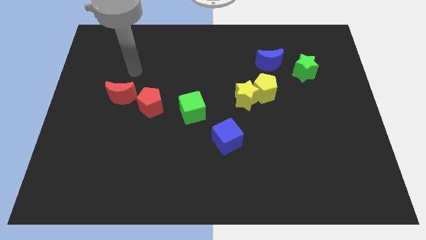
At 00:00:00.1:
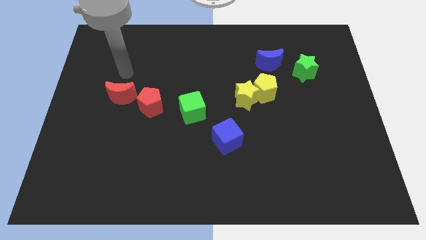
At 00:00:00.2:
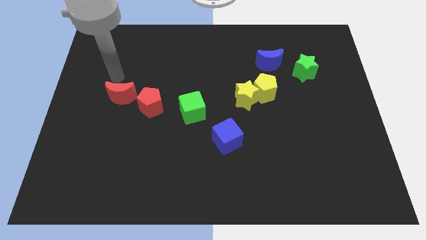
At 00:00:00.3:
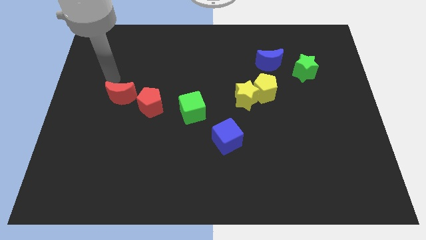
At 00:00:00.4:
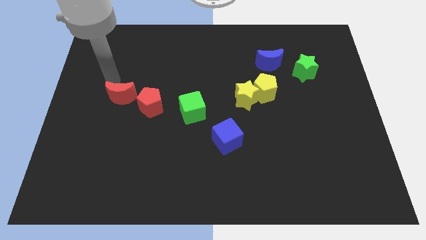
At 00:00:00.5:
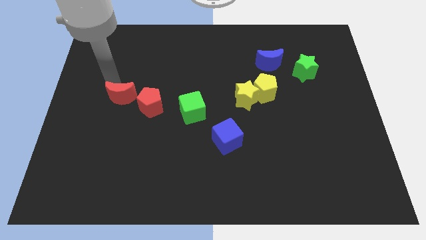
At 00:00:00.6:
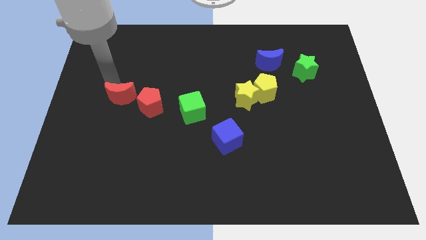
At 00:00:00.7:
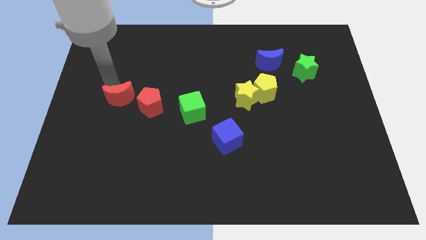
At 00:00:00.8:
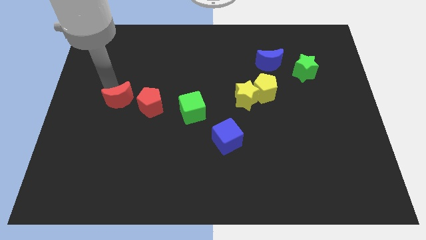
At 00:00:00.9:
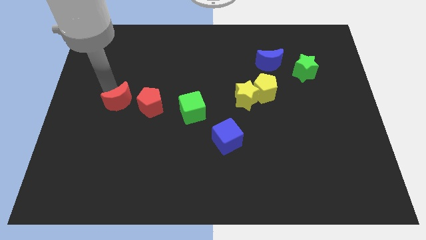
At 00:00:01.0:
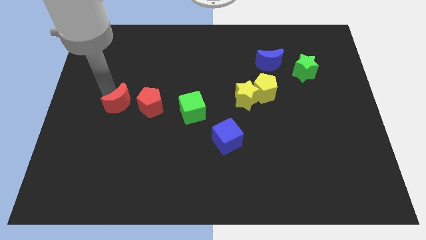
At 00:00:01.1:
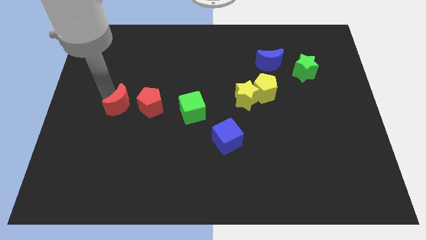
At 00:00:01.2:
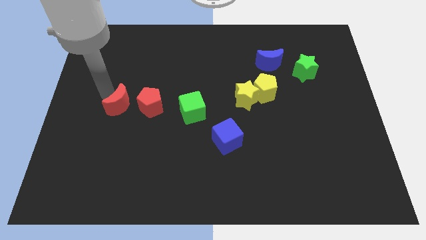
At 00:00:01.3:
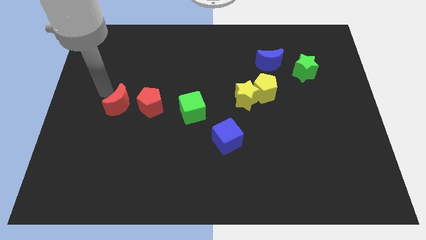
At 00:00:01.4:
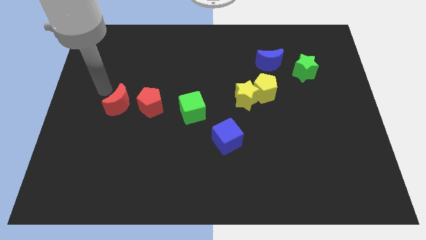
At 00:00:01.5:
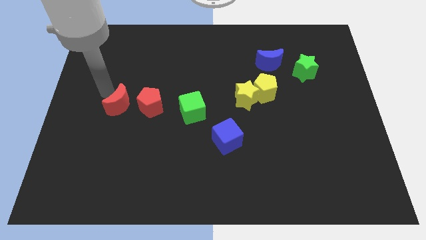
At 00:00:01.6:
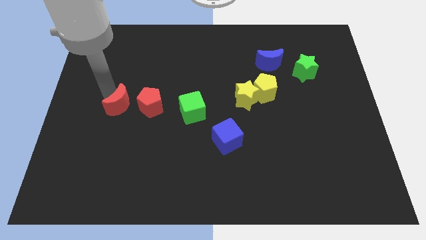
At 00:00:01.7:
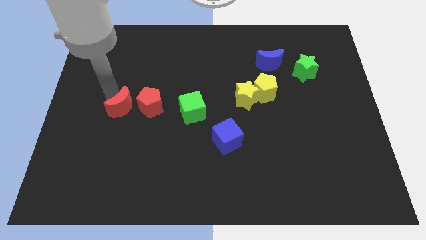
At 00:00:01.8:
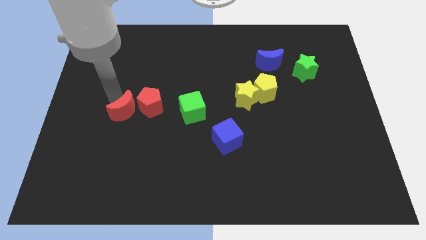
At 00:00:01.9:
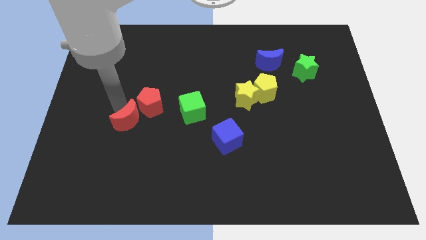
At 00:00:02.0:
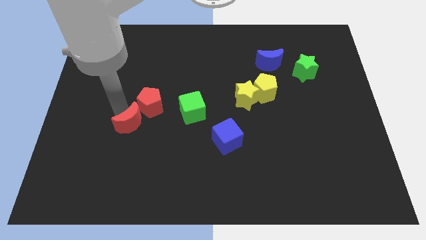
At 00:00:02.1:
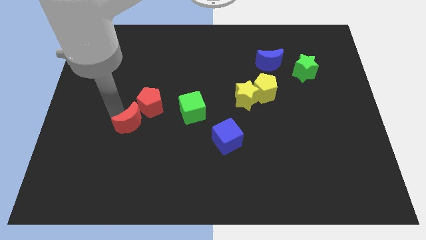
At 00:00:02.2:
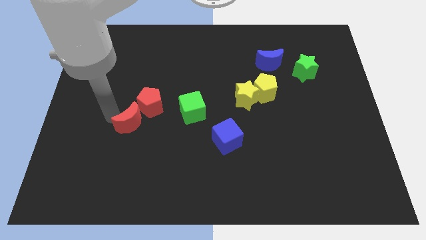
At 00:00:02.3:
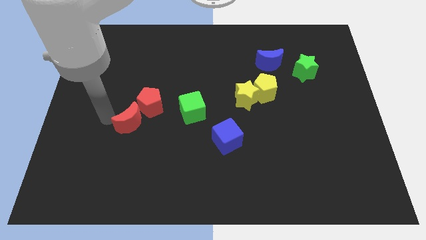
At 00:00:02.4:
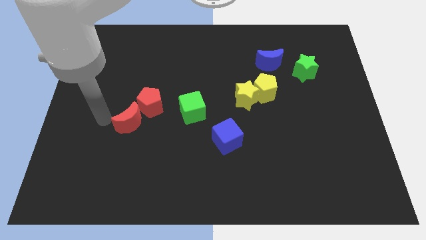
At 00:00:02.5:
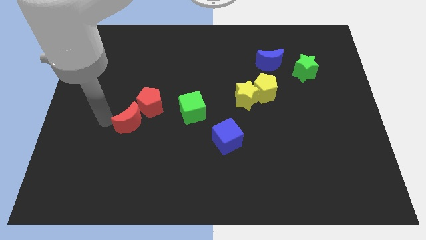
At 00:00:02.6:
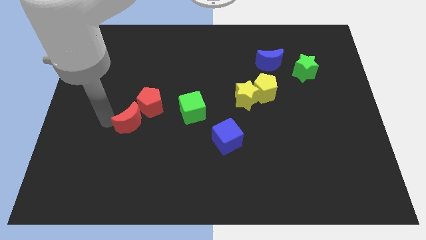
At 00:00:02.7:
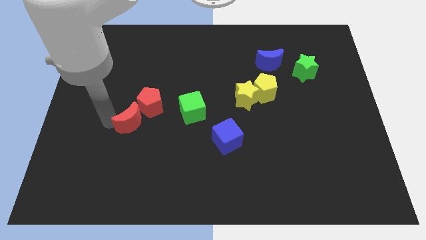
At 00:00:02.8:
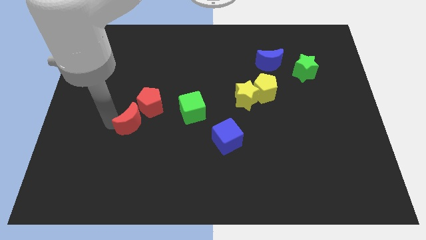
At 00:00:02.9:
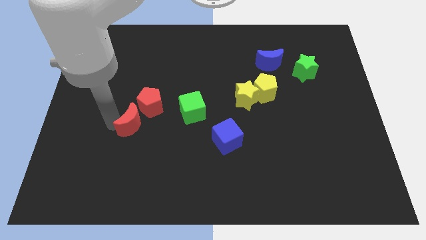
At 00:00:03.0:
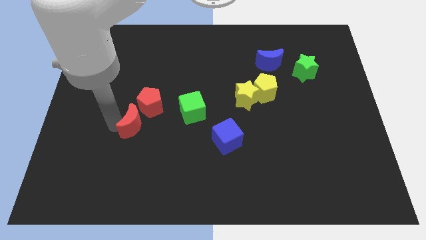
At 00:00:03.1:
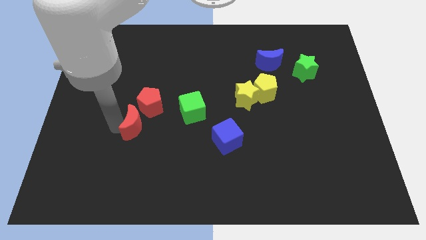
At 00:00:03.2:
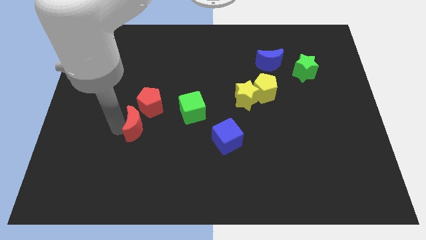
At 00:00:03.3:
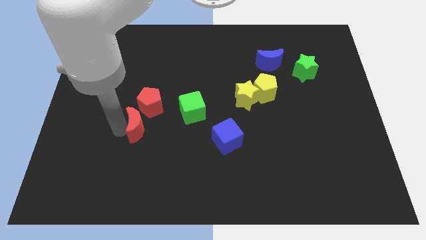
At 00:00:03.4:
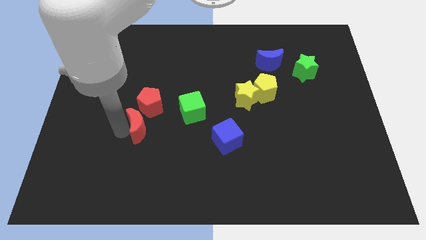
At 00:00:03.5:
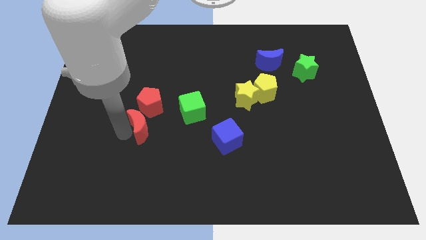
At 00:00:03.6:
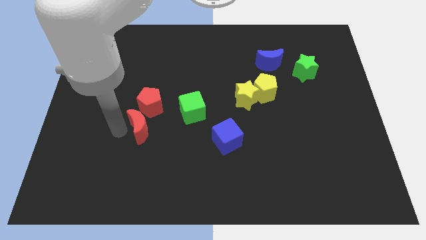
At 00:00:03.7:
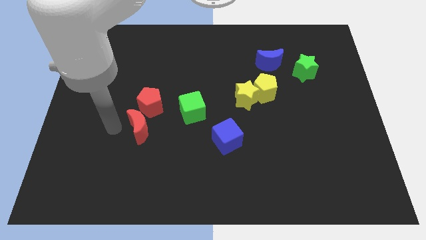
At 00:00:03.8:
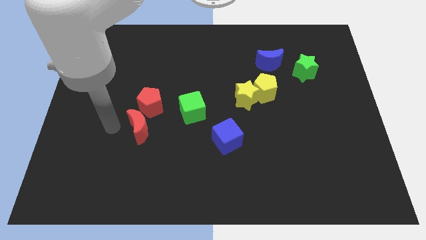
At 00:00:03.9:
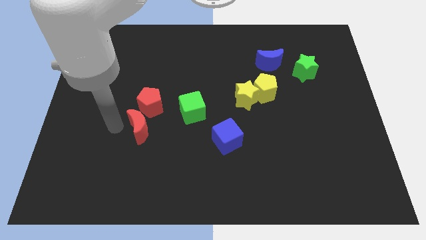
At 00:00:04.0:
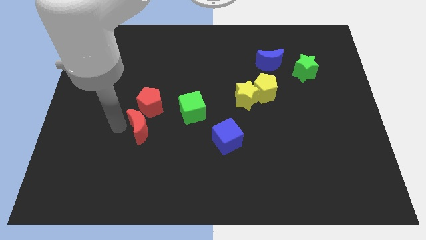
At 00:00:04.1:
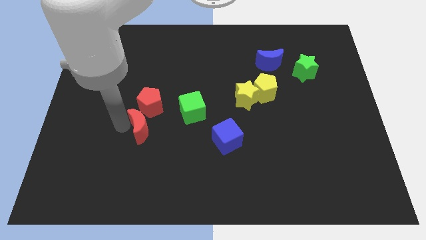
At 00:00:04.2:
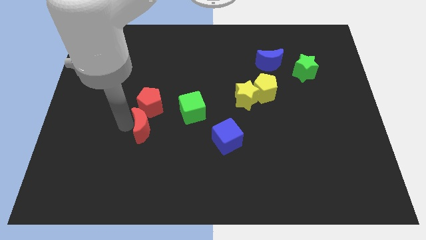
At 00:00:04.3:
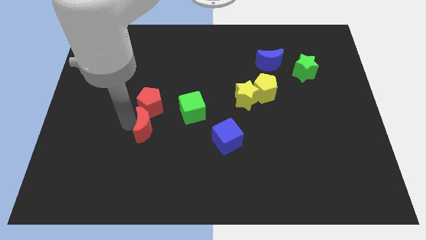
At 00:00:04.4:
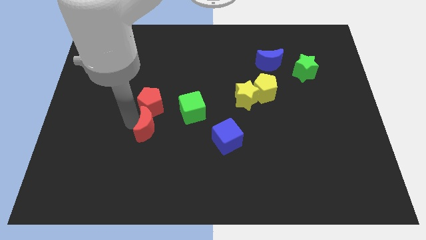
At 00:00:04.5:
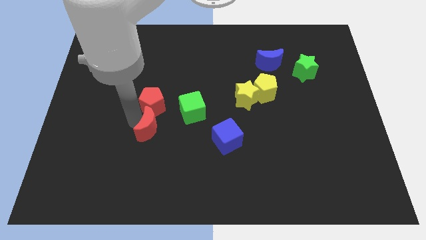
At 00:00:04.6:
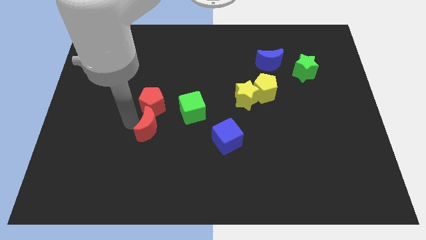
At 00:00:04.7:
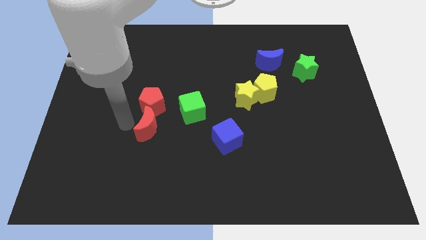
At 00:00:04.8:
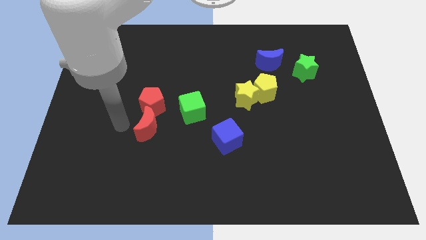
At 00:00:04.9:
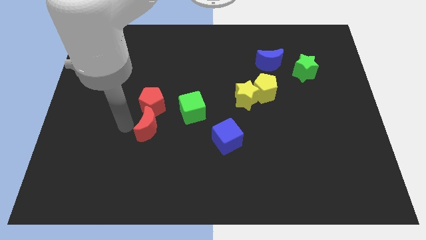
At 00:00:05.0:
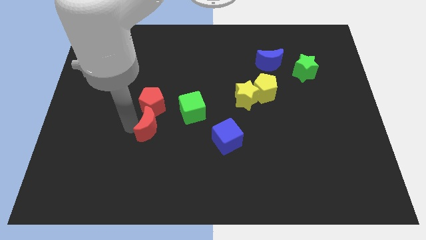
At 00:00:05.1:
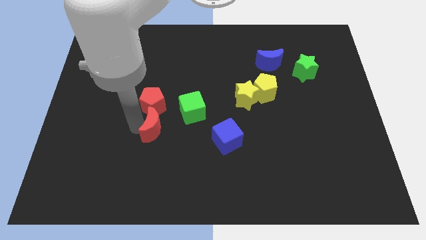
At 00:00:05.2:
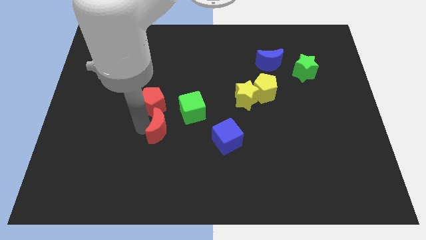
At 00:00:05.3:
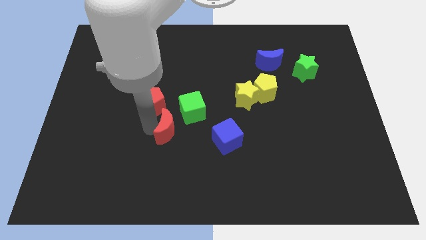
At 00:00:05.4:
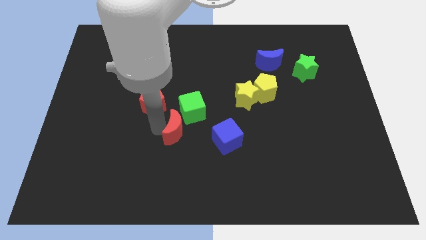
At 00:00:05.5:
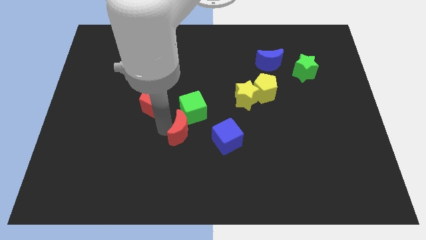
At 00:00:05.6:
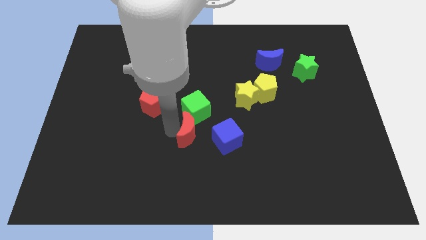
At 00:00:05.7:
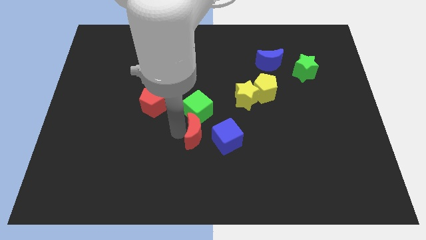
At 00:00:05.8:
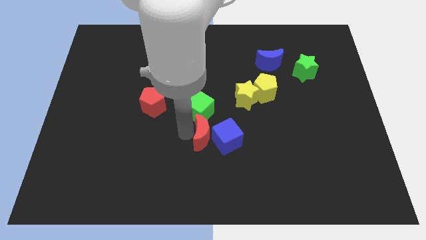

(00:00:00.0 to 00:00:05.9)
put the red moon next to the blue cube

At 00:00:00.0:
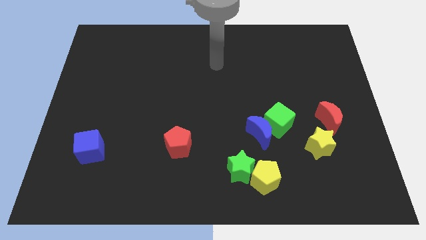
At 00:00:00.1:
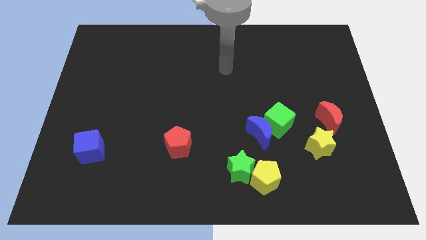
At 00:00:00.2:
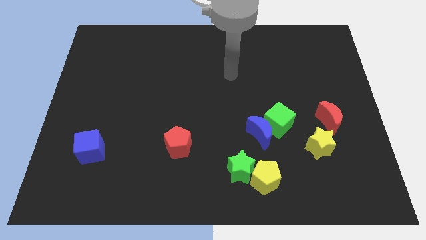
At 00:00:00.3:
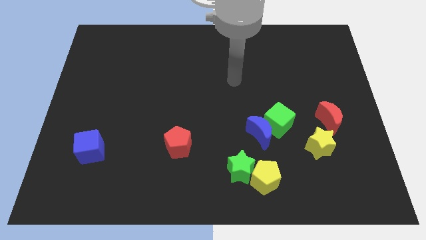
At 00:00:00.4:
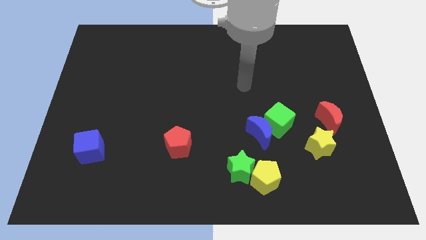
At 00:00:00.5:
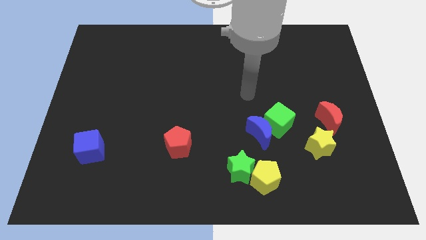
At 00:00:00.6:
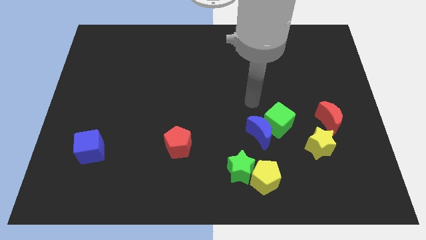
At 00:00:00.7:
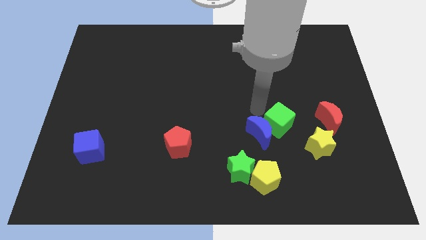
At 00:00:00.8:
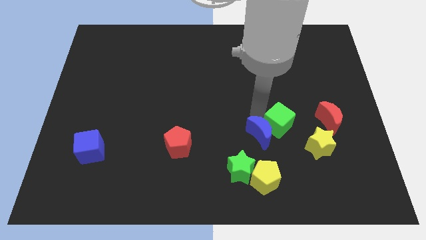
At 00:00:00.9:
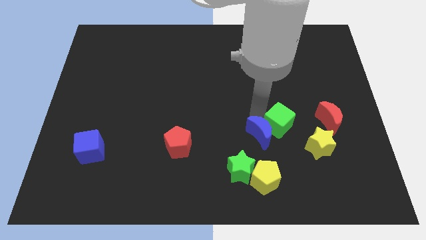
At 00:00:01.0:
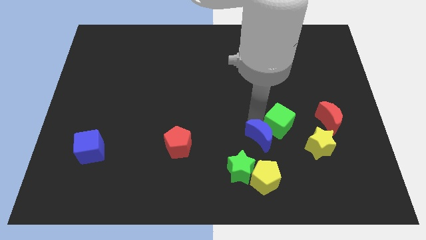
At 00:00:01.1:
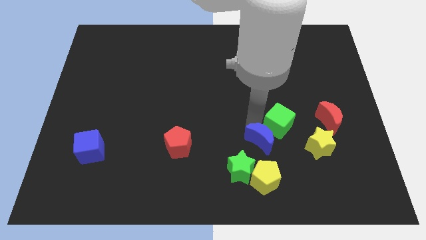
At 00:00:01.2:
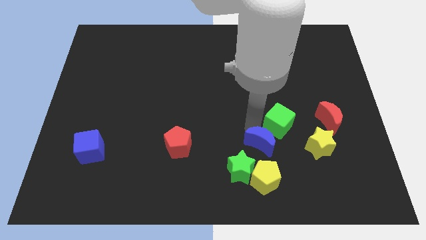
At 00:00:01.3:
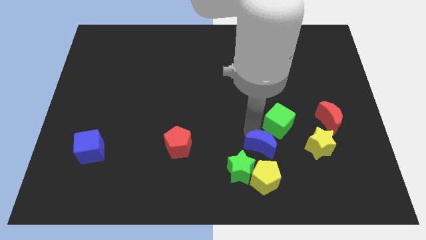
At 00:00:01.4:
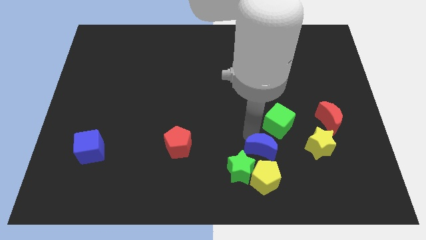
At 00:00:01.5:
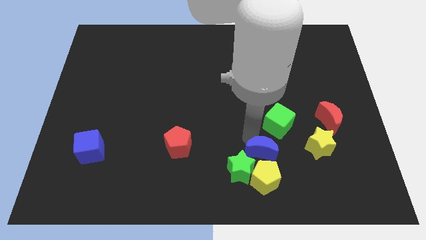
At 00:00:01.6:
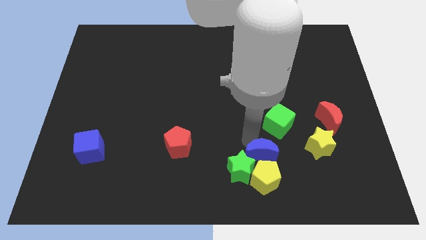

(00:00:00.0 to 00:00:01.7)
push the blue moon to the yellow pentagon
